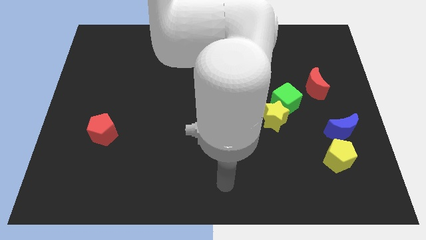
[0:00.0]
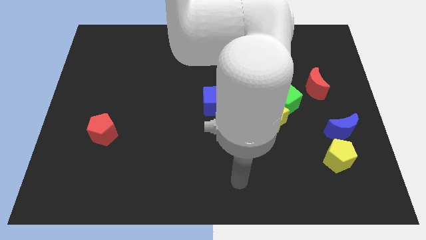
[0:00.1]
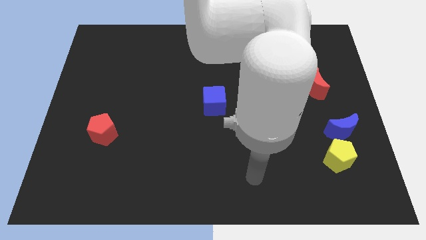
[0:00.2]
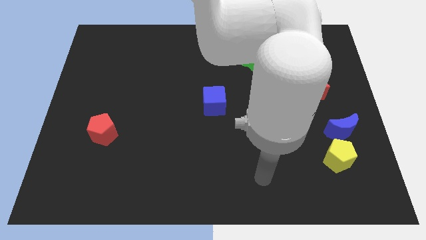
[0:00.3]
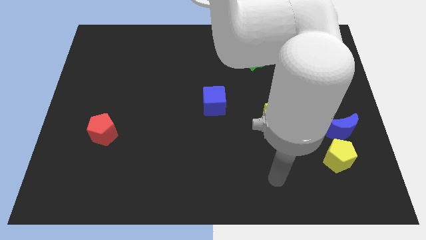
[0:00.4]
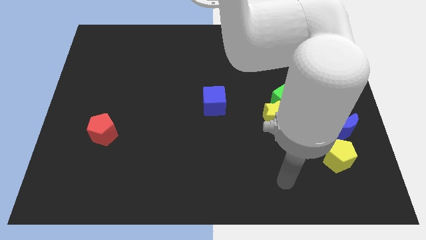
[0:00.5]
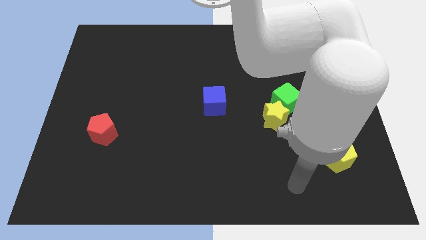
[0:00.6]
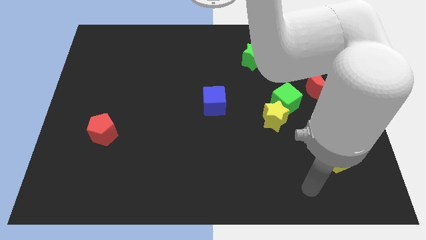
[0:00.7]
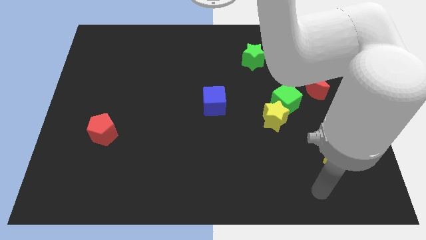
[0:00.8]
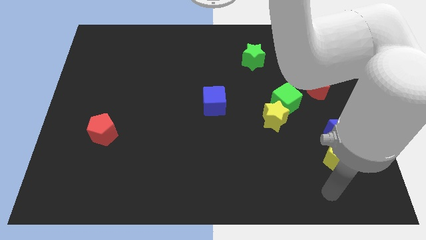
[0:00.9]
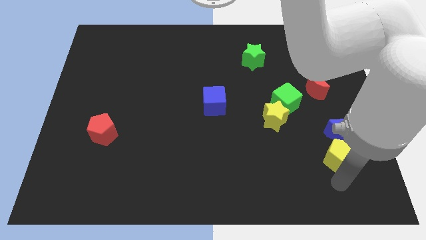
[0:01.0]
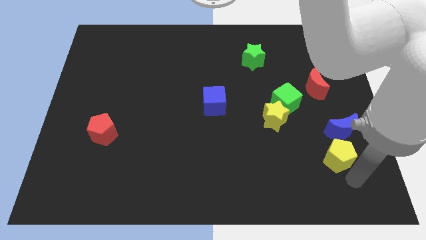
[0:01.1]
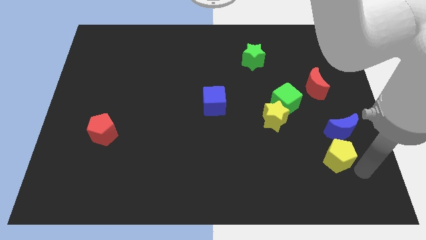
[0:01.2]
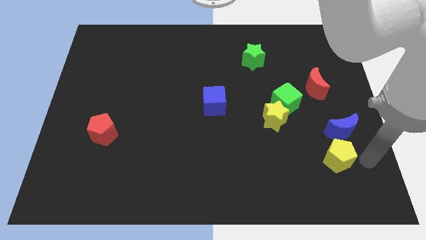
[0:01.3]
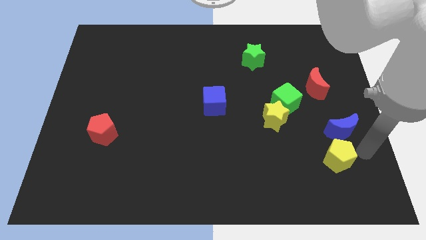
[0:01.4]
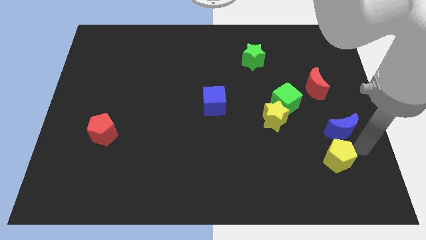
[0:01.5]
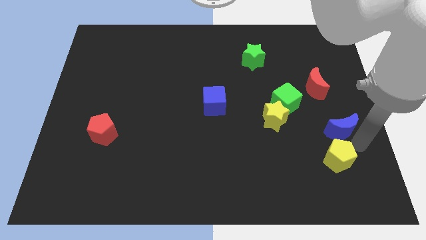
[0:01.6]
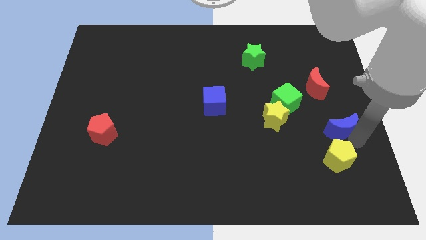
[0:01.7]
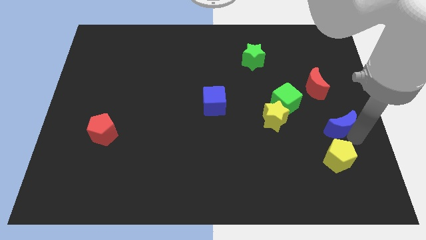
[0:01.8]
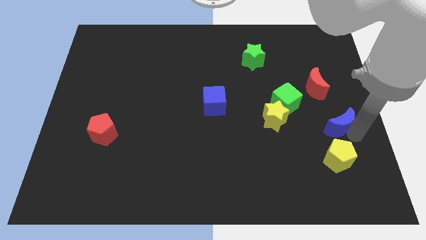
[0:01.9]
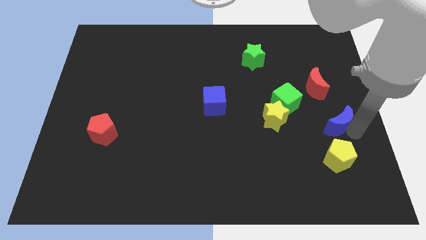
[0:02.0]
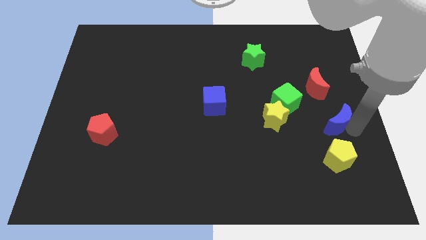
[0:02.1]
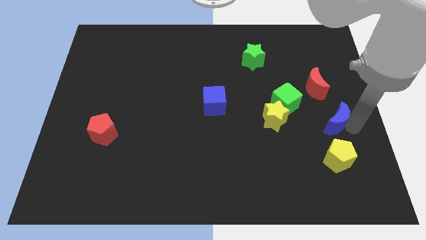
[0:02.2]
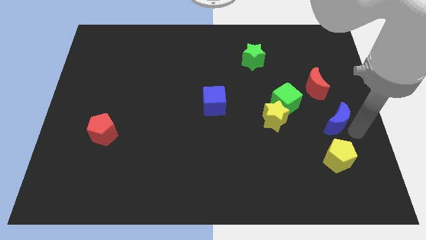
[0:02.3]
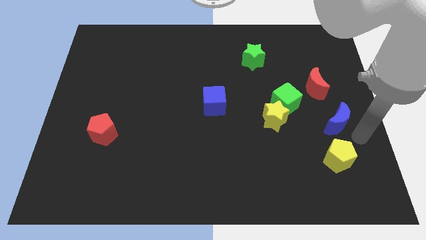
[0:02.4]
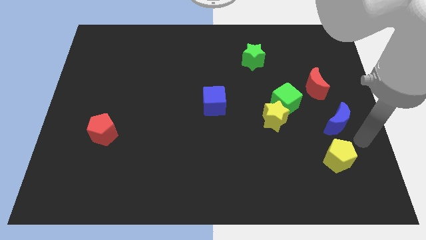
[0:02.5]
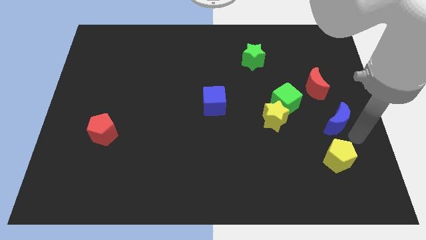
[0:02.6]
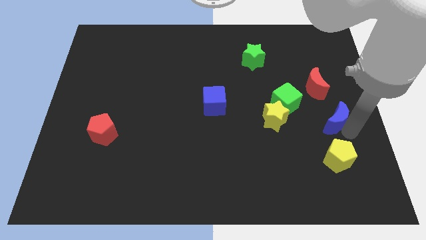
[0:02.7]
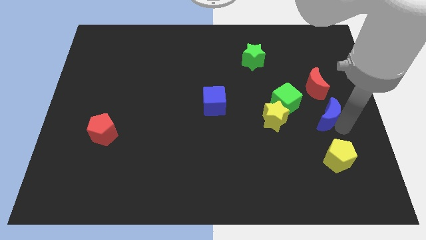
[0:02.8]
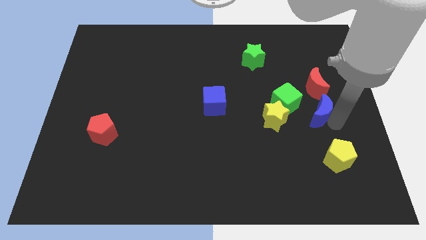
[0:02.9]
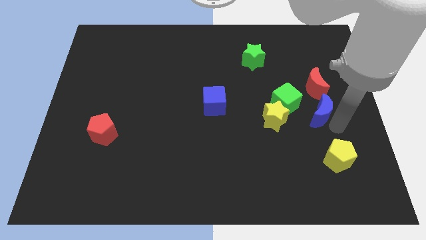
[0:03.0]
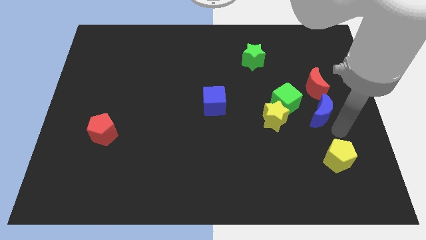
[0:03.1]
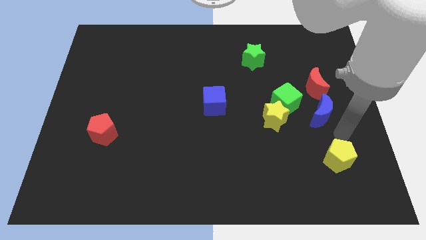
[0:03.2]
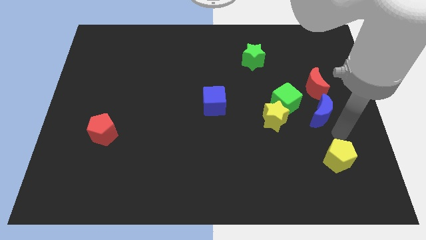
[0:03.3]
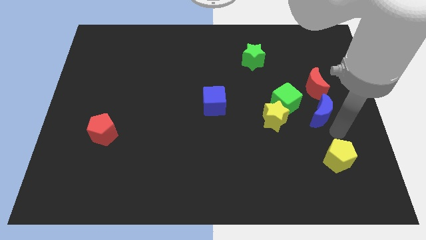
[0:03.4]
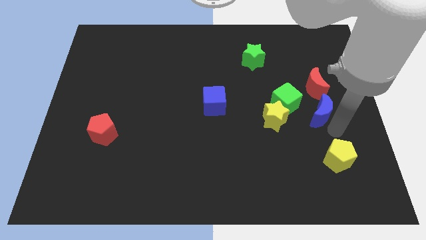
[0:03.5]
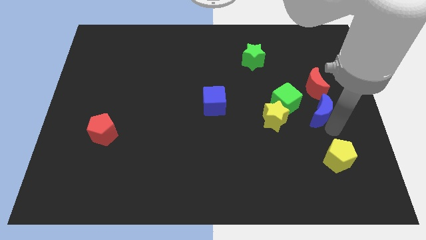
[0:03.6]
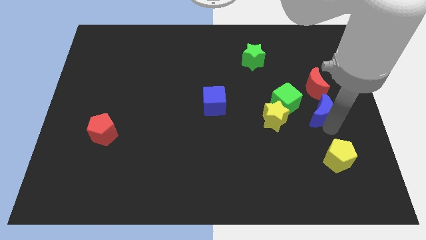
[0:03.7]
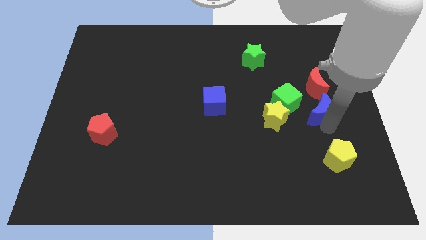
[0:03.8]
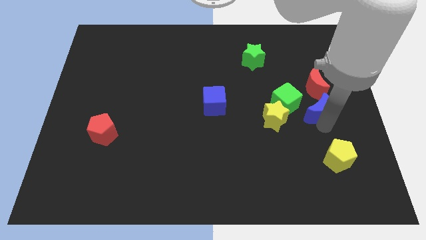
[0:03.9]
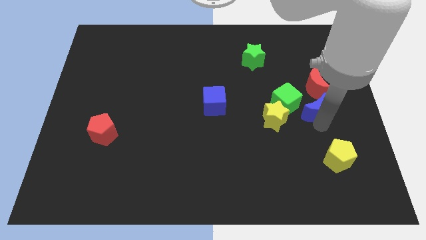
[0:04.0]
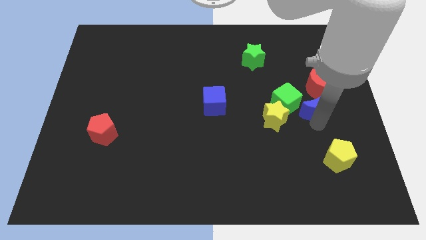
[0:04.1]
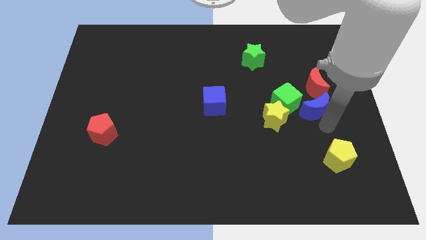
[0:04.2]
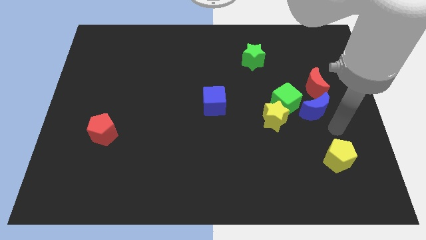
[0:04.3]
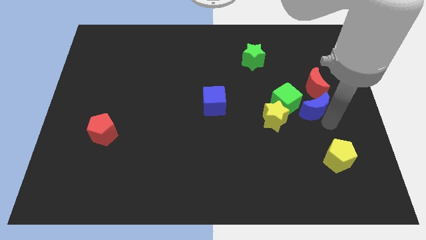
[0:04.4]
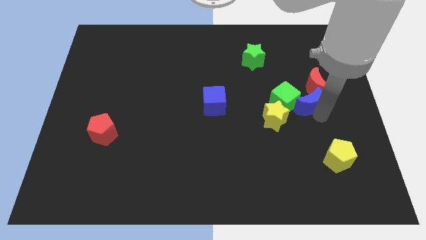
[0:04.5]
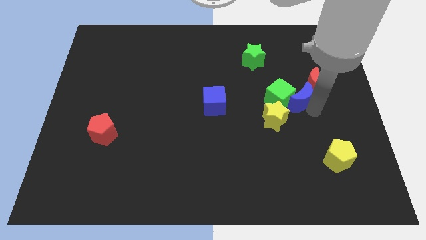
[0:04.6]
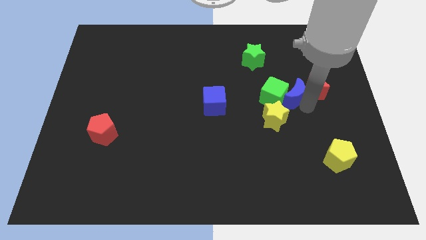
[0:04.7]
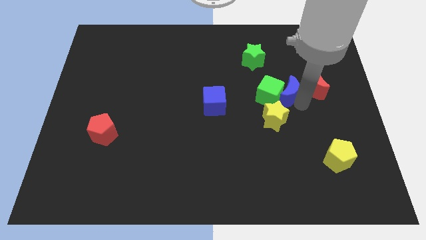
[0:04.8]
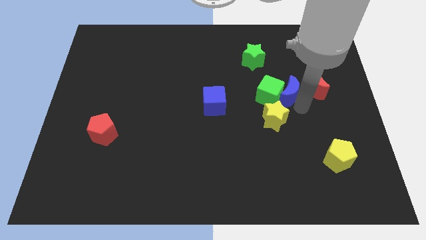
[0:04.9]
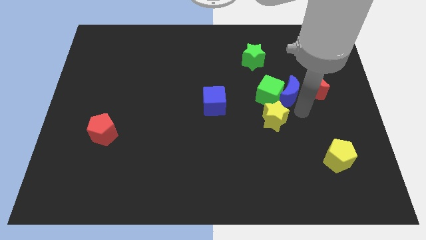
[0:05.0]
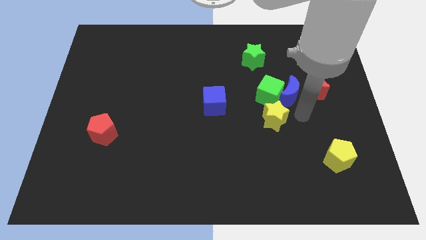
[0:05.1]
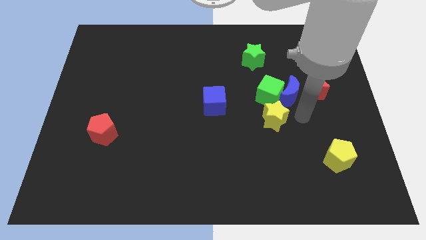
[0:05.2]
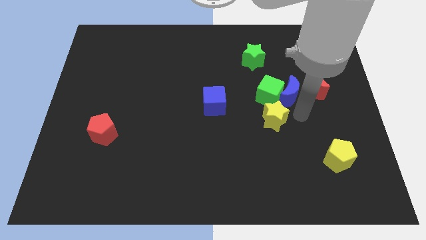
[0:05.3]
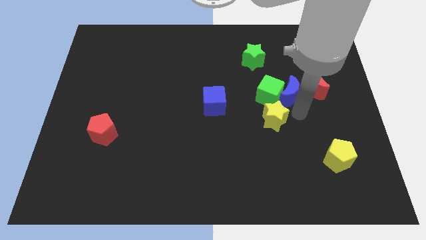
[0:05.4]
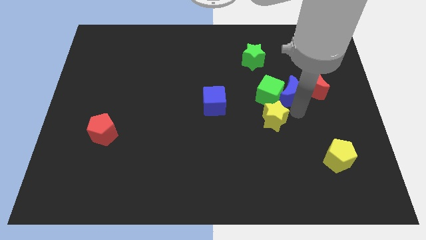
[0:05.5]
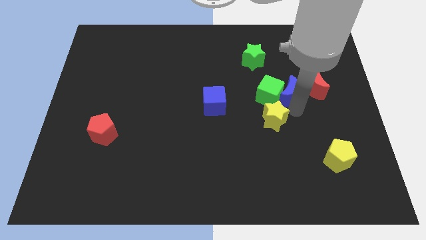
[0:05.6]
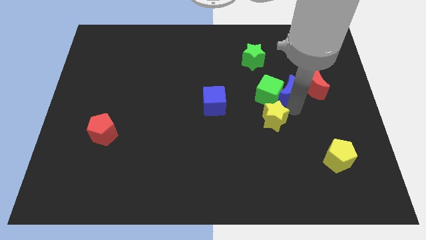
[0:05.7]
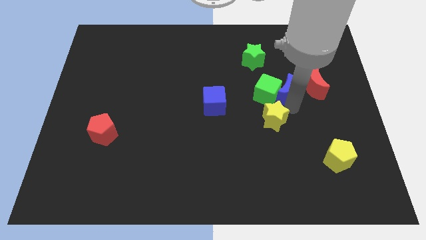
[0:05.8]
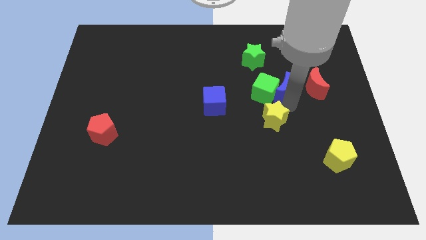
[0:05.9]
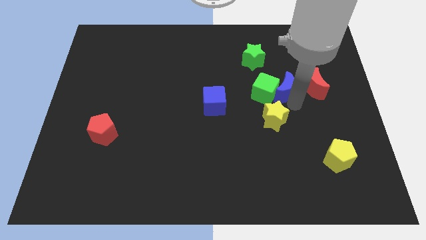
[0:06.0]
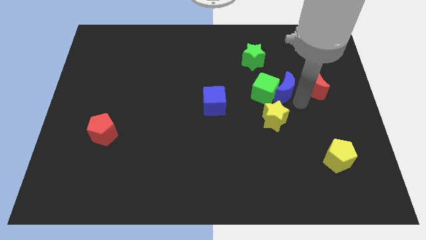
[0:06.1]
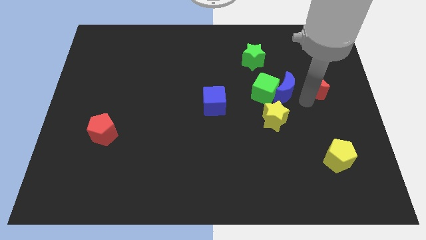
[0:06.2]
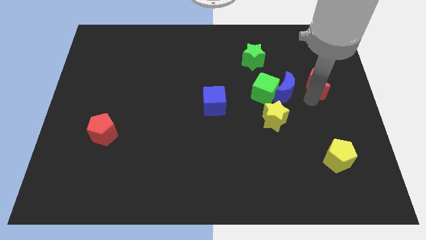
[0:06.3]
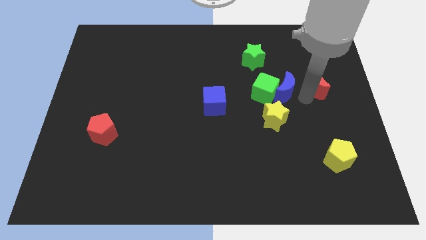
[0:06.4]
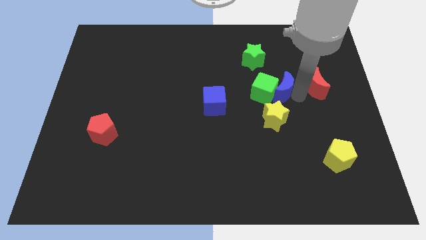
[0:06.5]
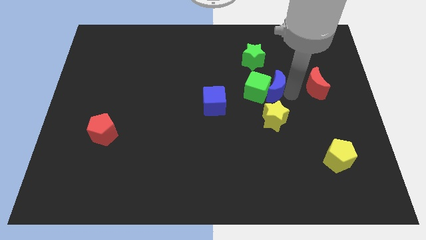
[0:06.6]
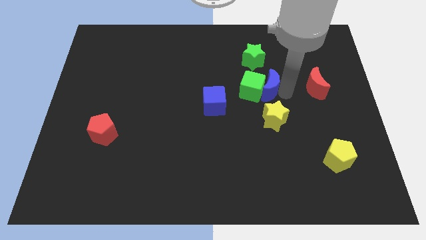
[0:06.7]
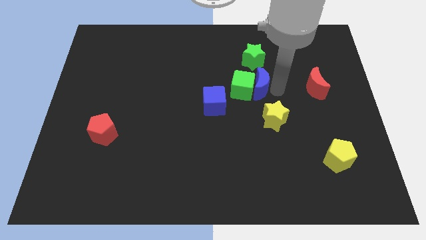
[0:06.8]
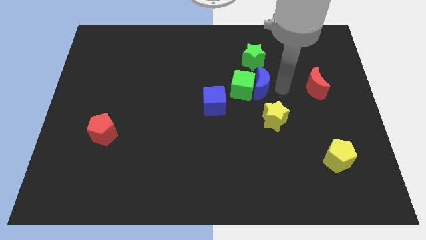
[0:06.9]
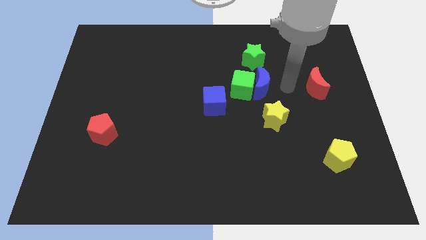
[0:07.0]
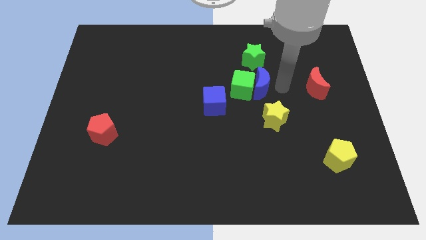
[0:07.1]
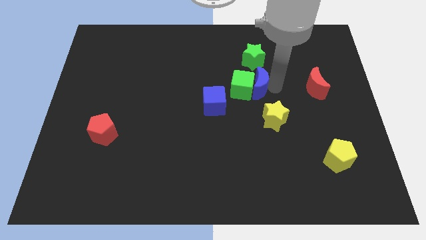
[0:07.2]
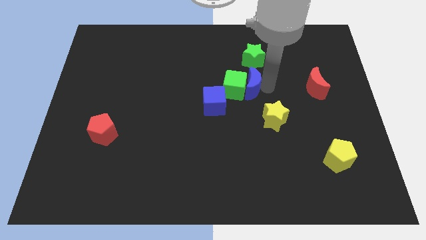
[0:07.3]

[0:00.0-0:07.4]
push the blue moon to the top right side of the blue cube
